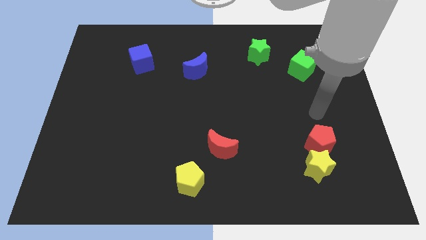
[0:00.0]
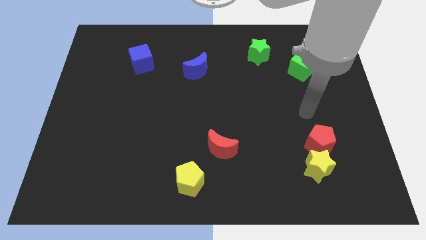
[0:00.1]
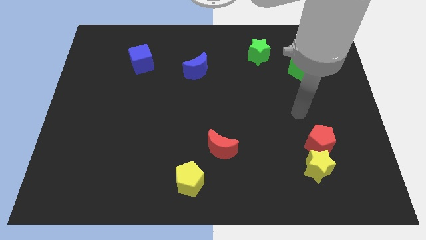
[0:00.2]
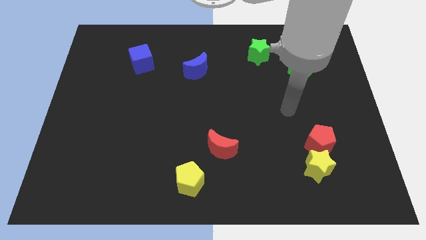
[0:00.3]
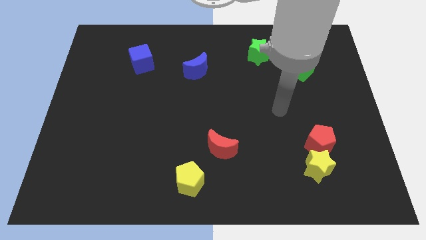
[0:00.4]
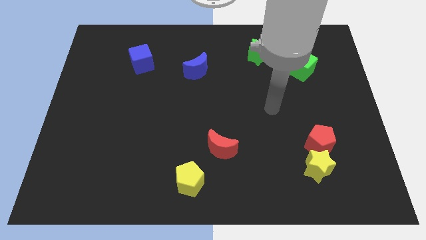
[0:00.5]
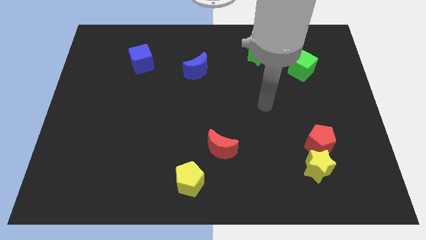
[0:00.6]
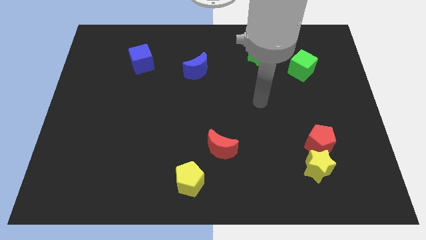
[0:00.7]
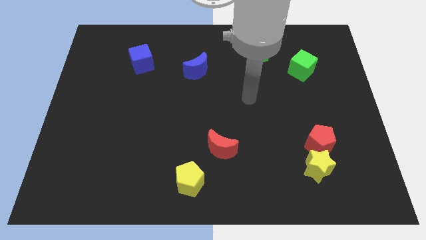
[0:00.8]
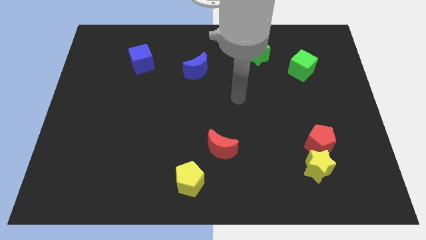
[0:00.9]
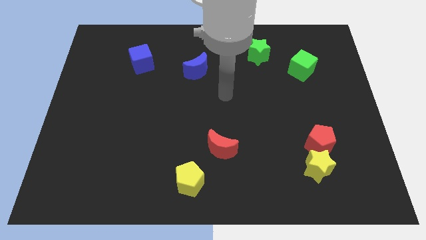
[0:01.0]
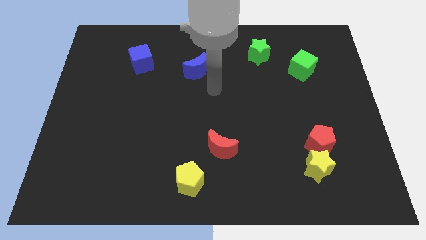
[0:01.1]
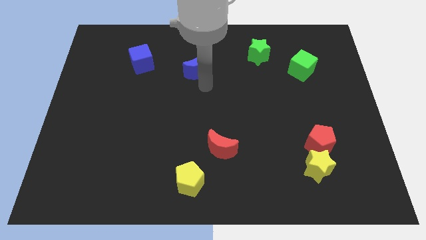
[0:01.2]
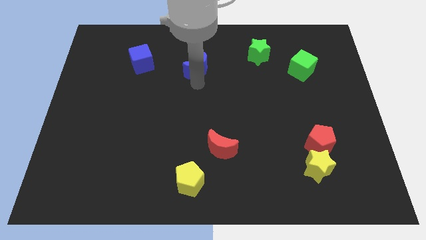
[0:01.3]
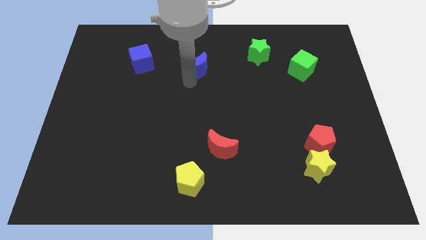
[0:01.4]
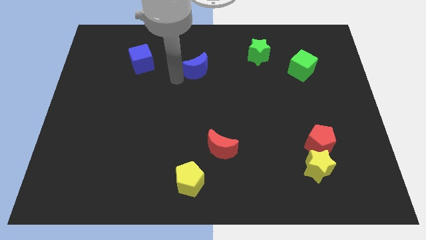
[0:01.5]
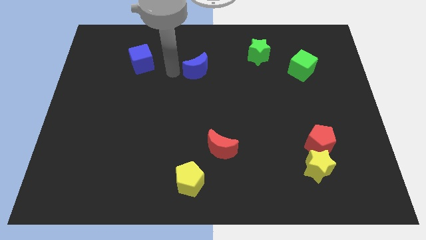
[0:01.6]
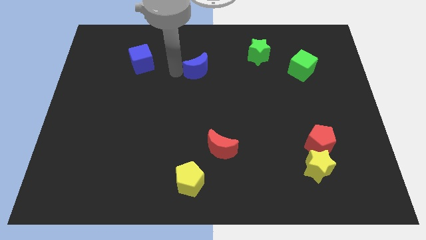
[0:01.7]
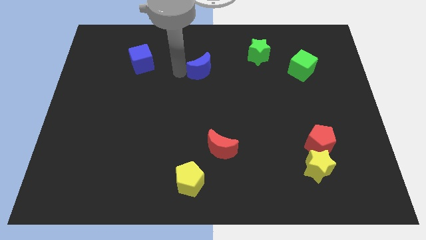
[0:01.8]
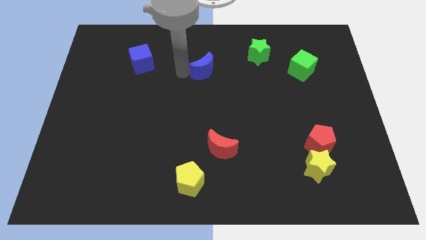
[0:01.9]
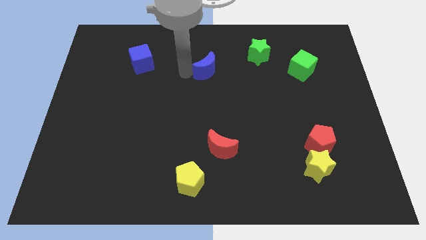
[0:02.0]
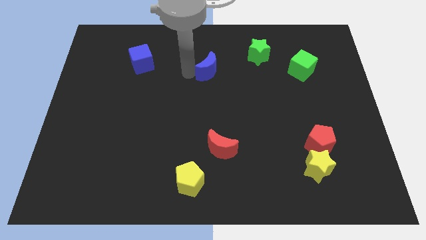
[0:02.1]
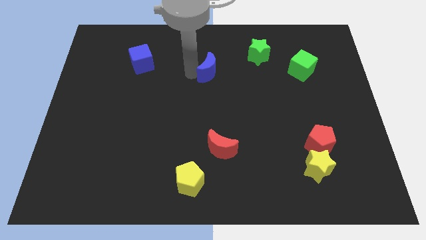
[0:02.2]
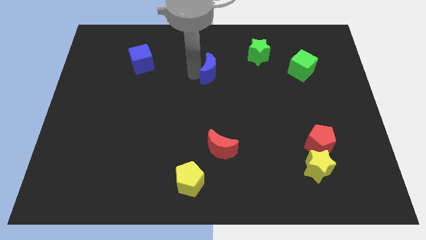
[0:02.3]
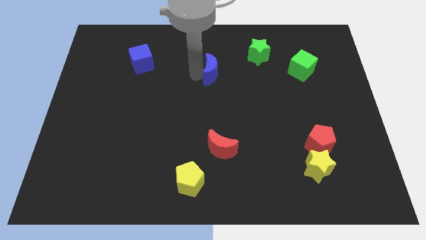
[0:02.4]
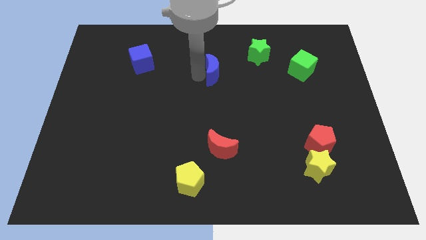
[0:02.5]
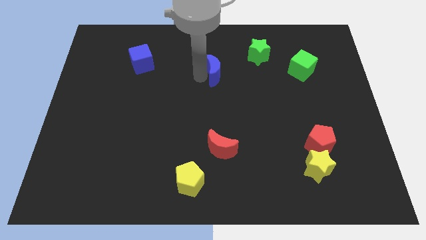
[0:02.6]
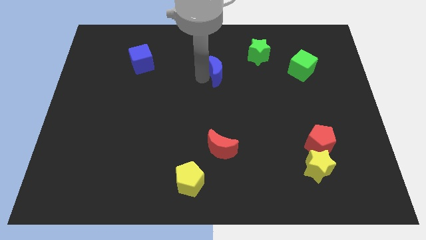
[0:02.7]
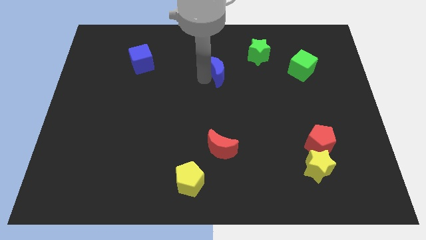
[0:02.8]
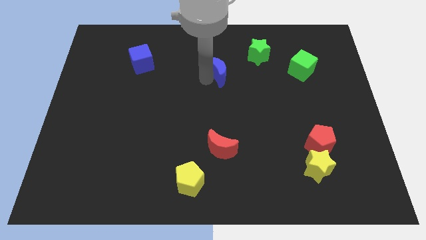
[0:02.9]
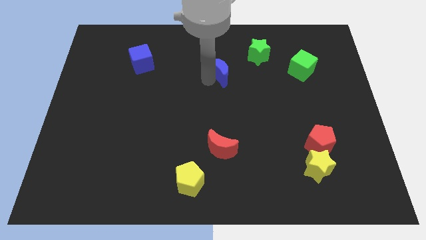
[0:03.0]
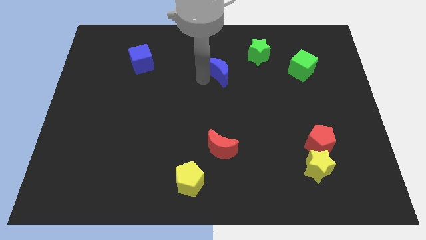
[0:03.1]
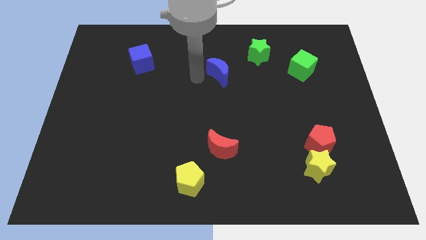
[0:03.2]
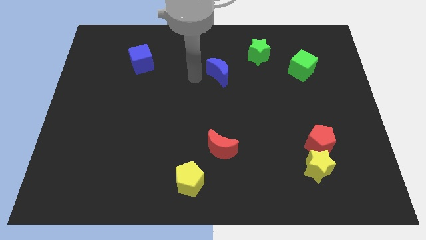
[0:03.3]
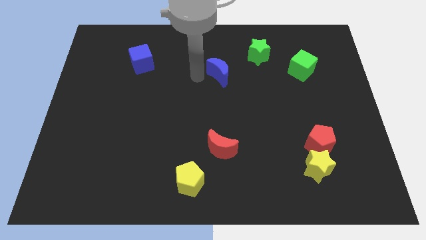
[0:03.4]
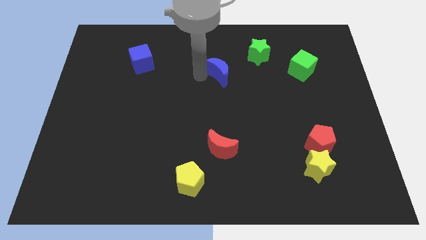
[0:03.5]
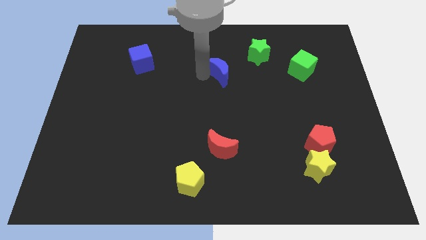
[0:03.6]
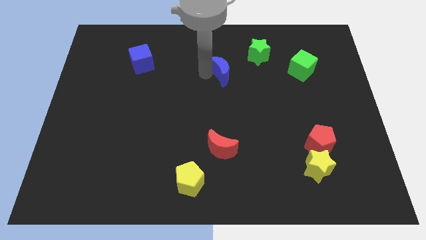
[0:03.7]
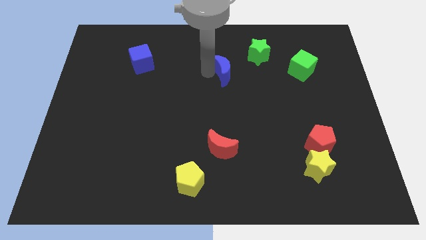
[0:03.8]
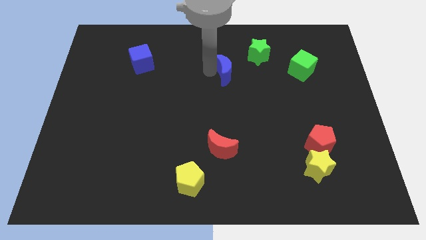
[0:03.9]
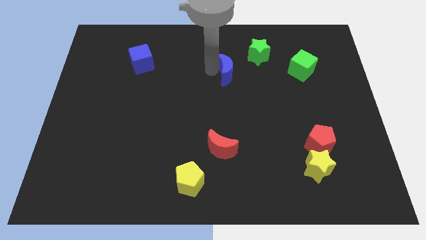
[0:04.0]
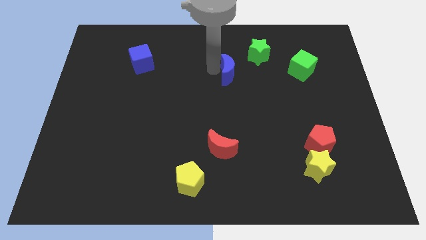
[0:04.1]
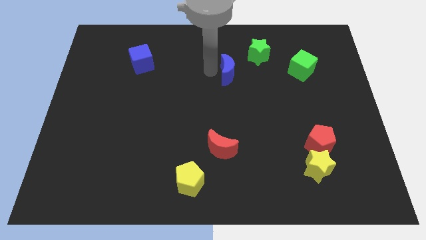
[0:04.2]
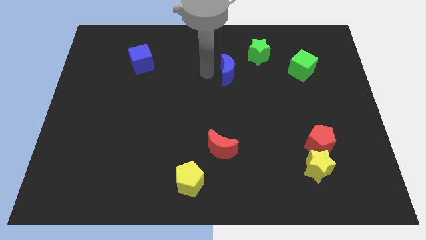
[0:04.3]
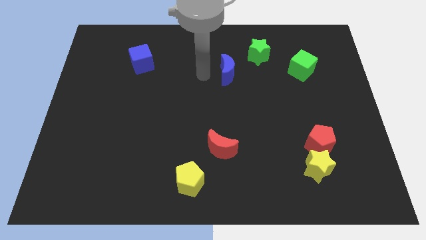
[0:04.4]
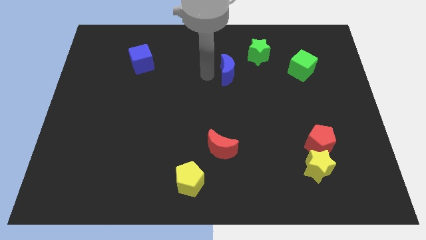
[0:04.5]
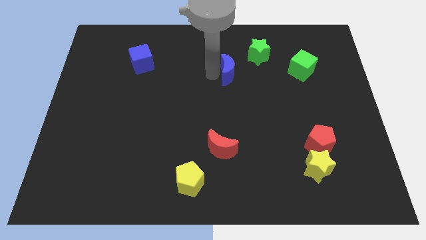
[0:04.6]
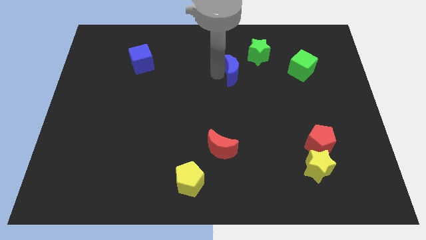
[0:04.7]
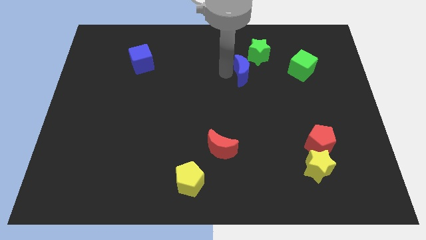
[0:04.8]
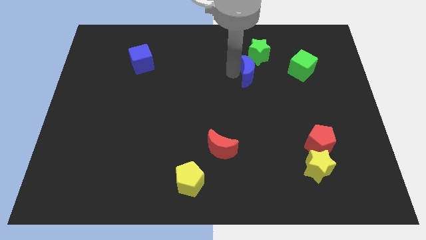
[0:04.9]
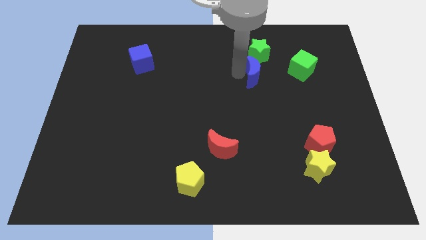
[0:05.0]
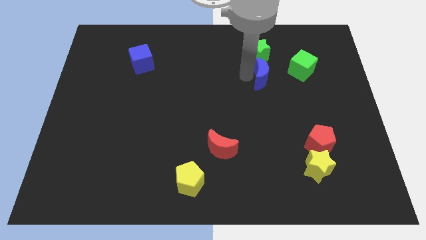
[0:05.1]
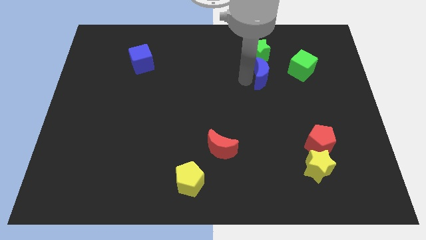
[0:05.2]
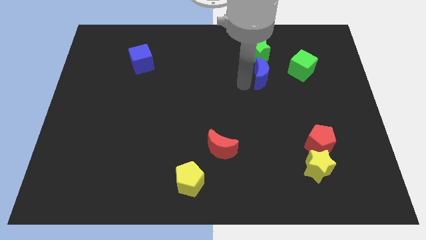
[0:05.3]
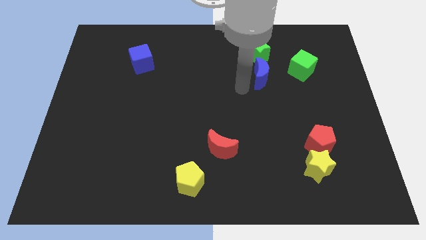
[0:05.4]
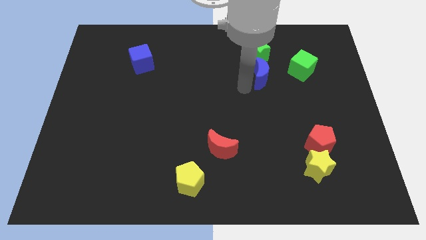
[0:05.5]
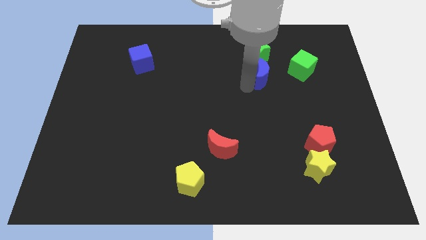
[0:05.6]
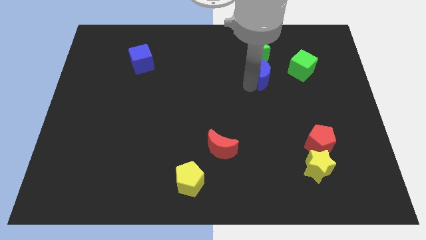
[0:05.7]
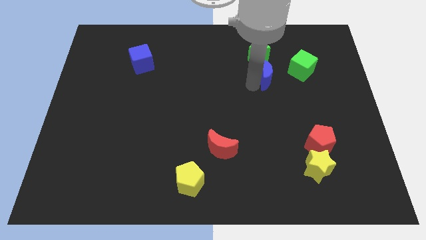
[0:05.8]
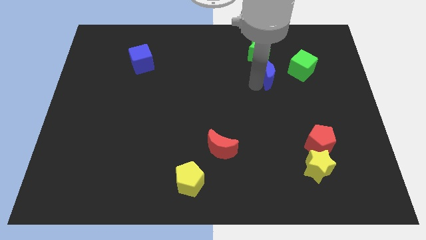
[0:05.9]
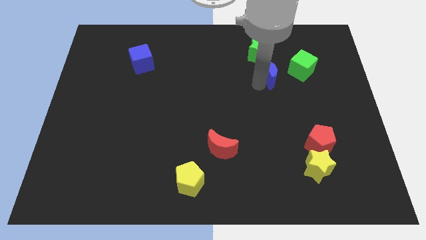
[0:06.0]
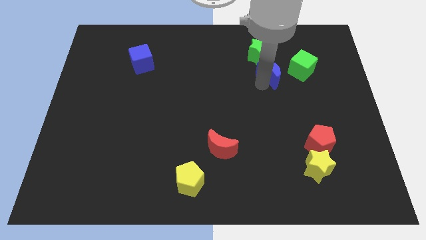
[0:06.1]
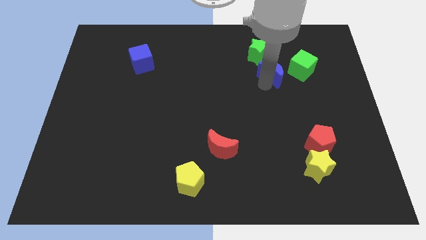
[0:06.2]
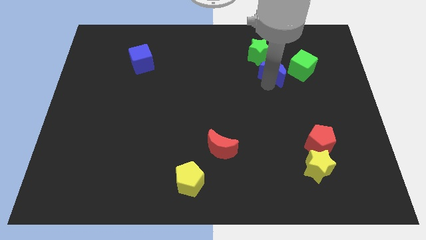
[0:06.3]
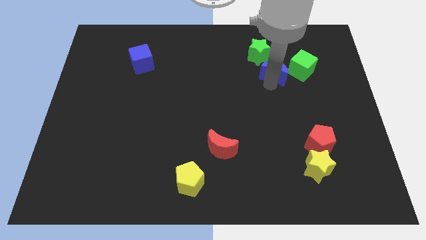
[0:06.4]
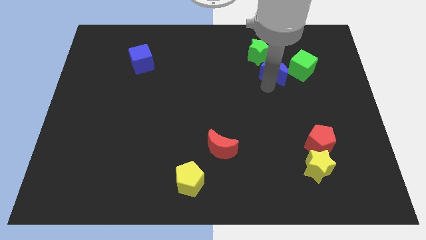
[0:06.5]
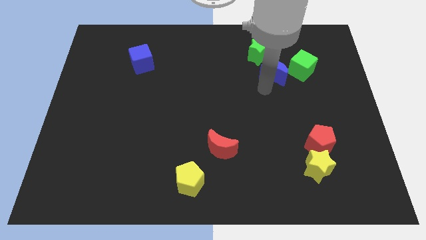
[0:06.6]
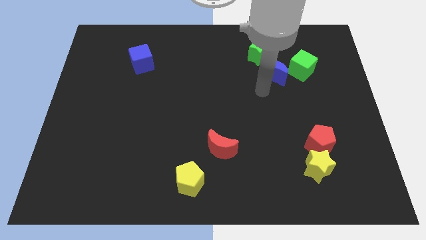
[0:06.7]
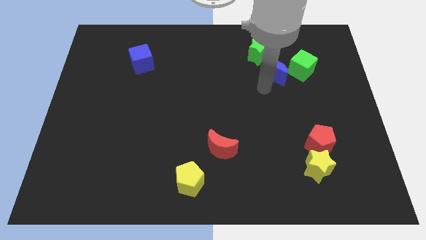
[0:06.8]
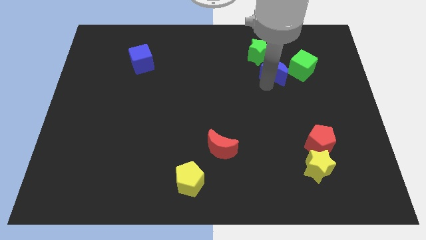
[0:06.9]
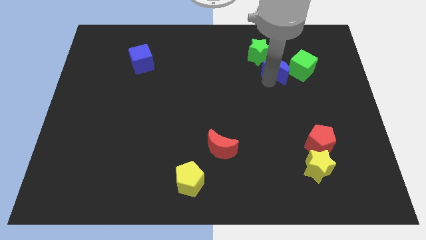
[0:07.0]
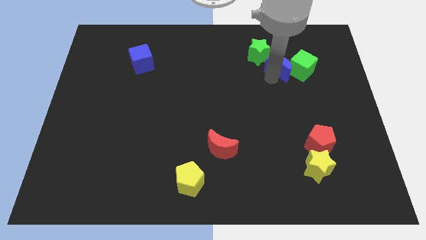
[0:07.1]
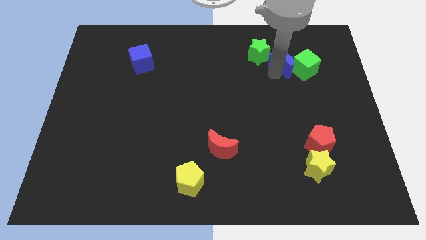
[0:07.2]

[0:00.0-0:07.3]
push the blue moon right of the green star
